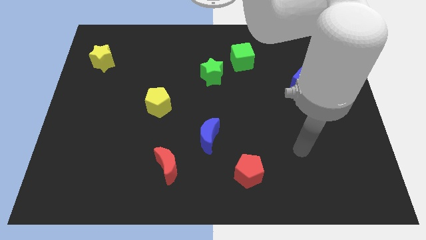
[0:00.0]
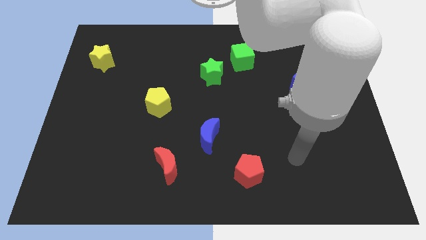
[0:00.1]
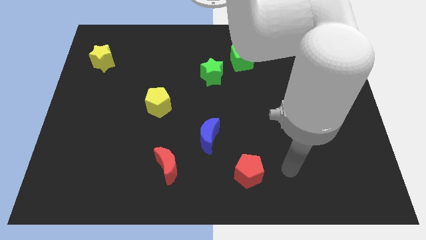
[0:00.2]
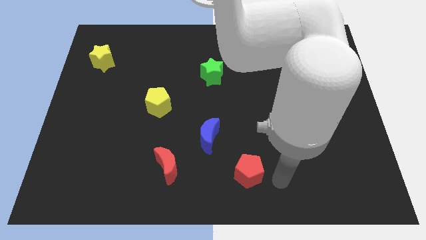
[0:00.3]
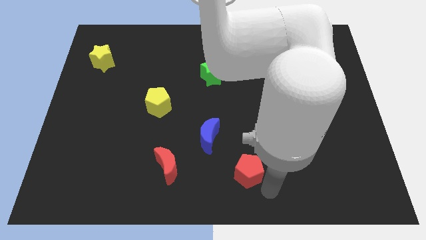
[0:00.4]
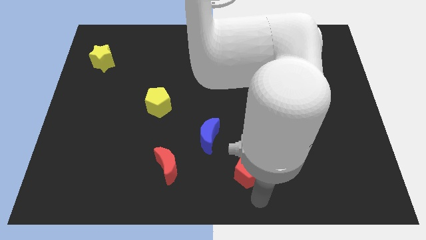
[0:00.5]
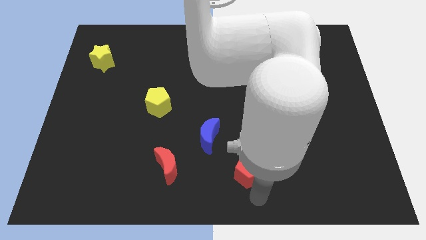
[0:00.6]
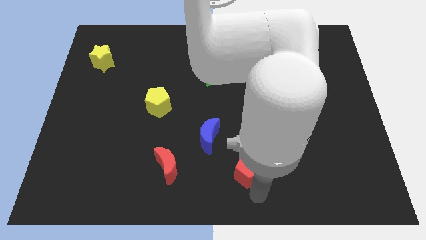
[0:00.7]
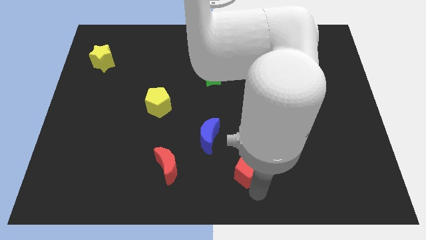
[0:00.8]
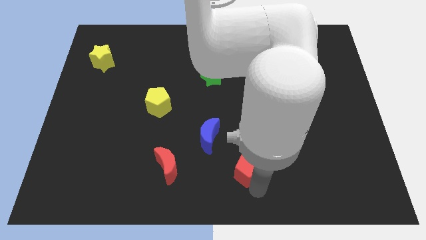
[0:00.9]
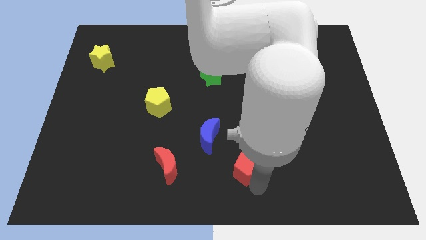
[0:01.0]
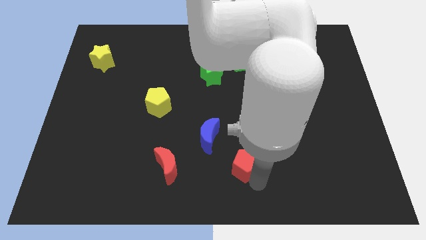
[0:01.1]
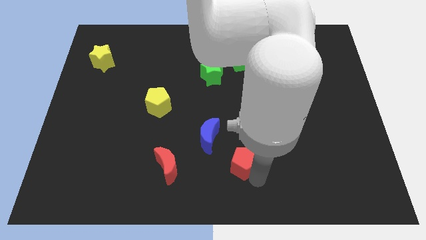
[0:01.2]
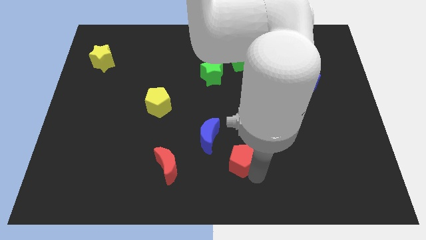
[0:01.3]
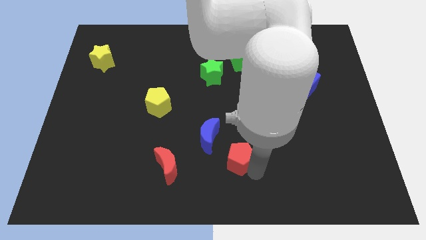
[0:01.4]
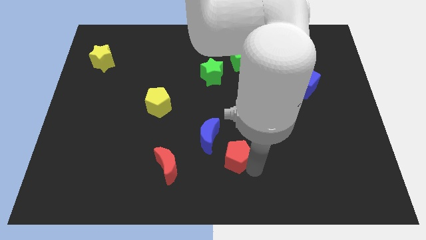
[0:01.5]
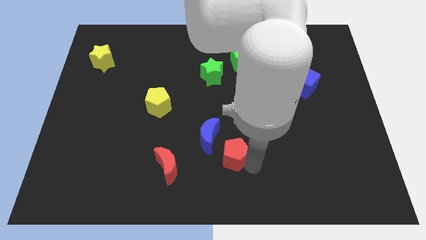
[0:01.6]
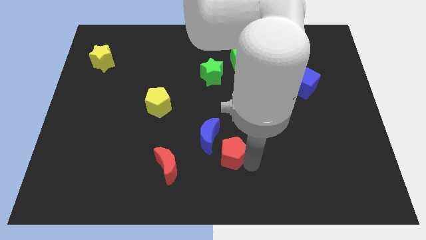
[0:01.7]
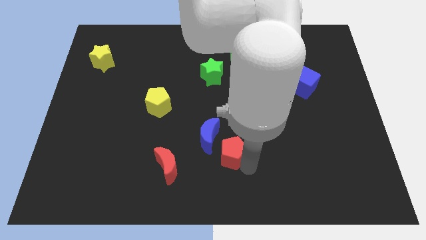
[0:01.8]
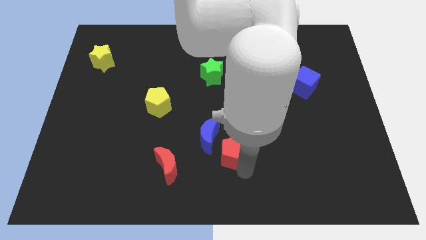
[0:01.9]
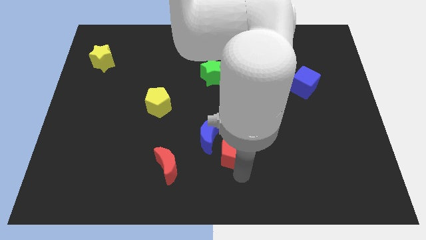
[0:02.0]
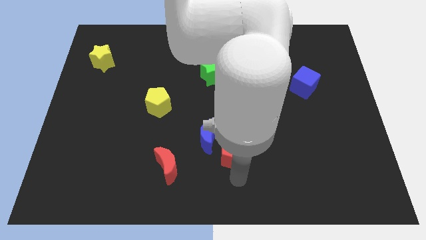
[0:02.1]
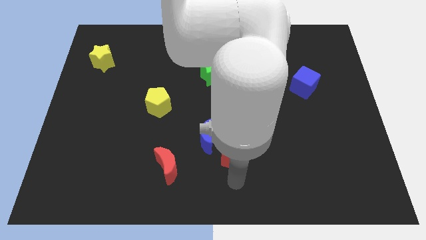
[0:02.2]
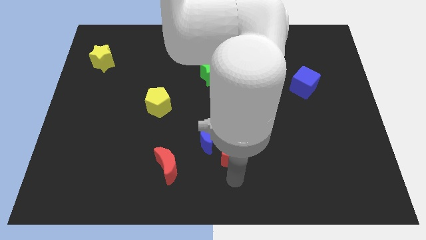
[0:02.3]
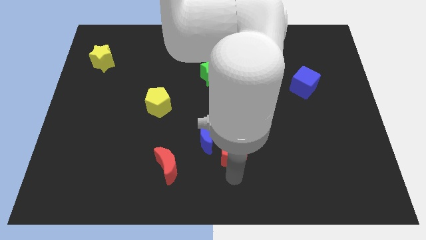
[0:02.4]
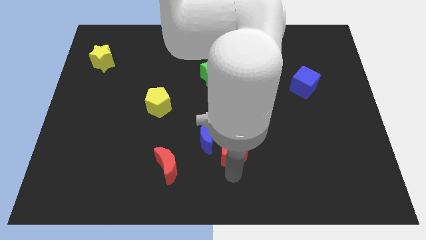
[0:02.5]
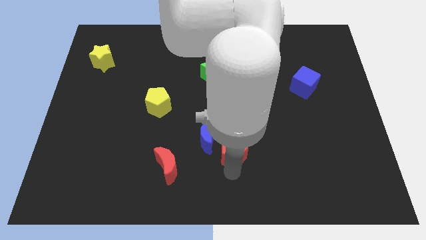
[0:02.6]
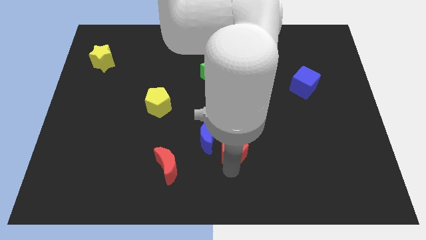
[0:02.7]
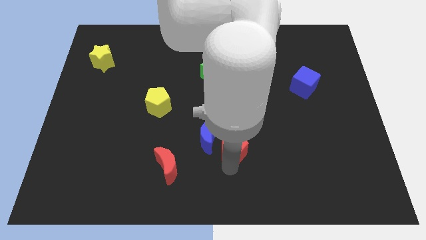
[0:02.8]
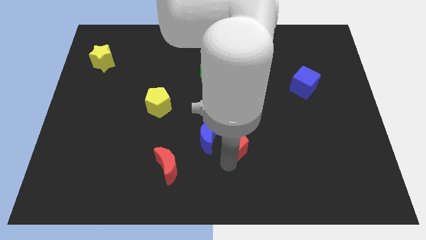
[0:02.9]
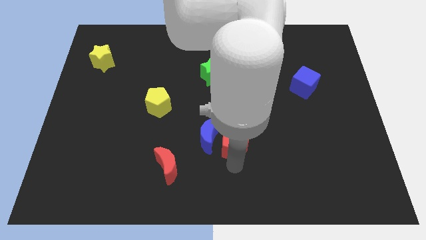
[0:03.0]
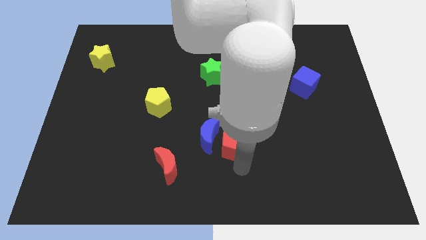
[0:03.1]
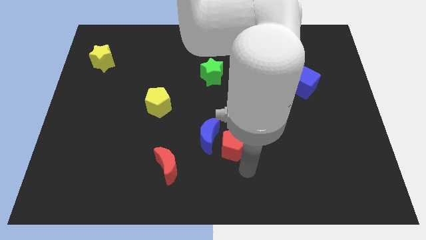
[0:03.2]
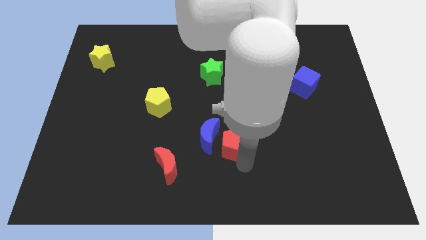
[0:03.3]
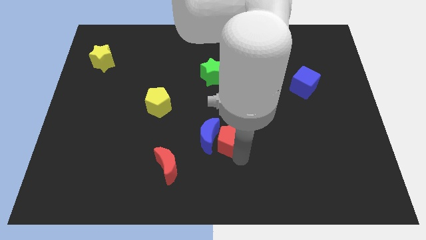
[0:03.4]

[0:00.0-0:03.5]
slide the red pentagon slightly up and to the left diagonally

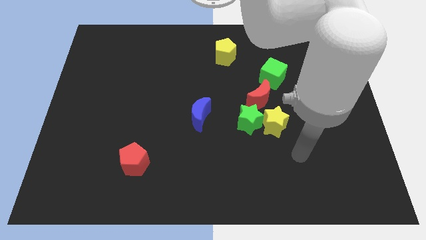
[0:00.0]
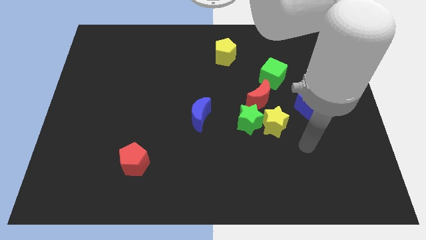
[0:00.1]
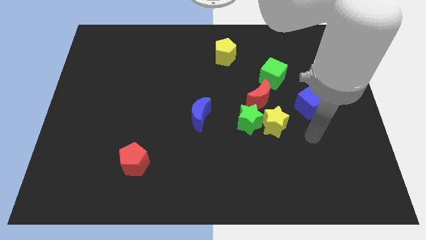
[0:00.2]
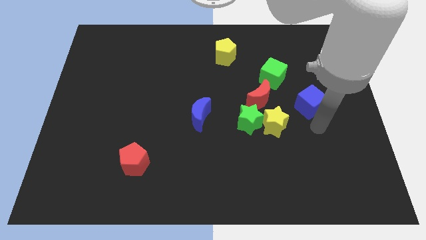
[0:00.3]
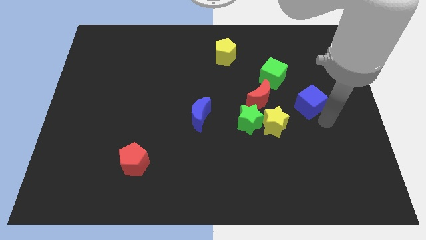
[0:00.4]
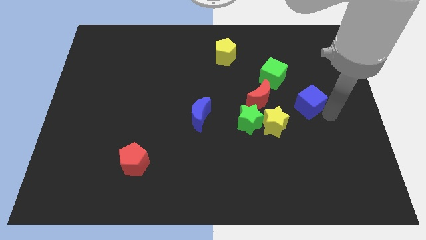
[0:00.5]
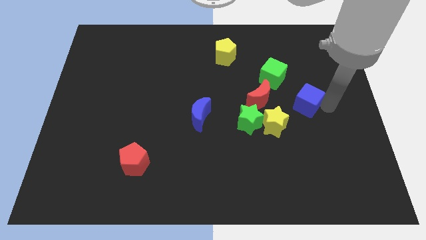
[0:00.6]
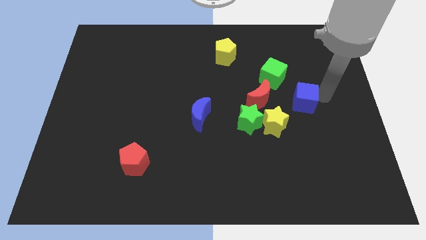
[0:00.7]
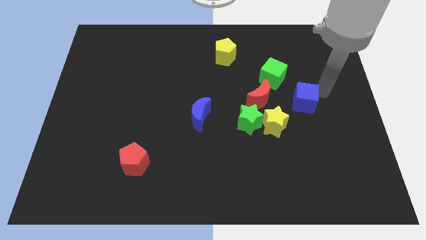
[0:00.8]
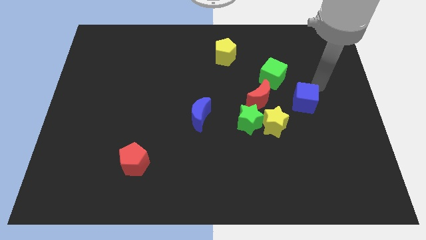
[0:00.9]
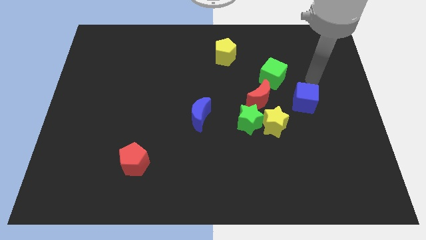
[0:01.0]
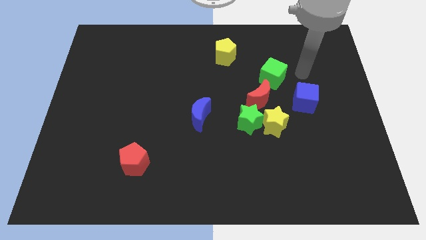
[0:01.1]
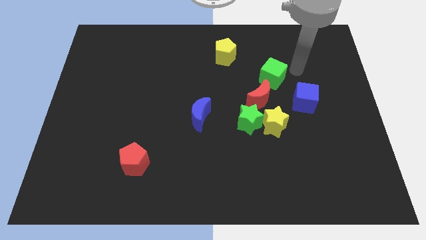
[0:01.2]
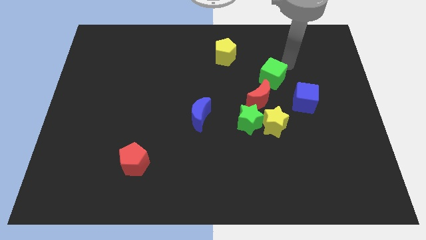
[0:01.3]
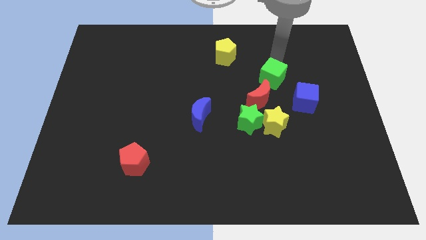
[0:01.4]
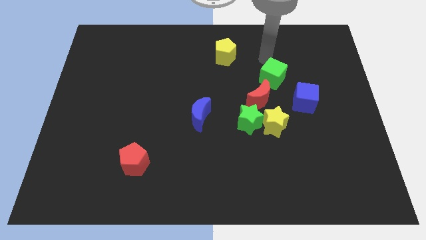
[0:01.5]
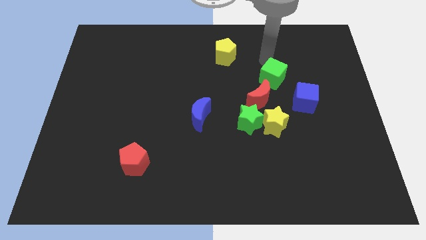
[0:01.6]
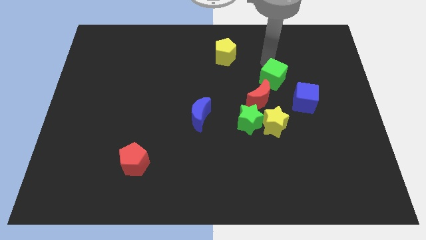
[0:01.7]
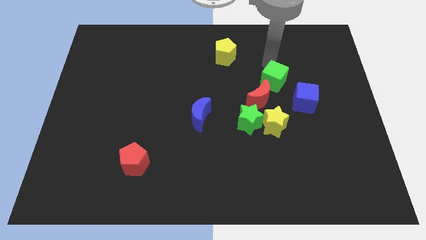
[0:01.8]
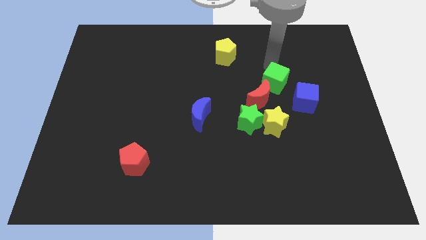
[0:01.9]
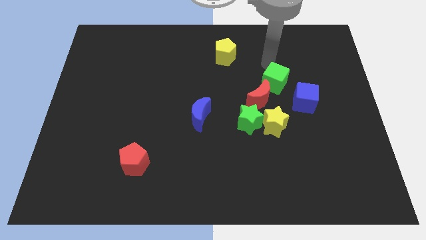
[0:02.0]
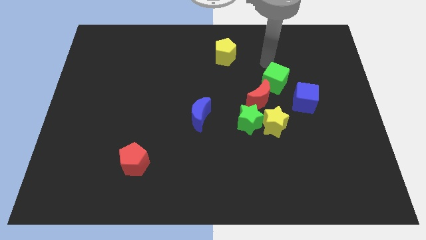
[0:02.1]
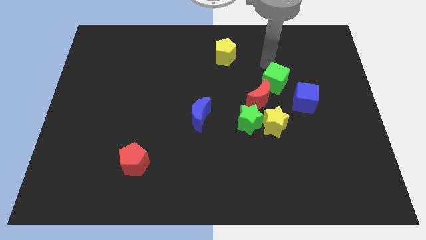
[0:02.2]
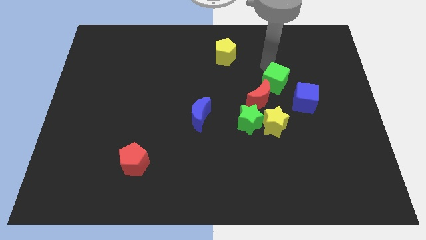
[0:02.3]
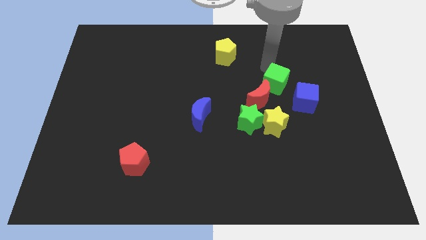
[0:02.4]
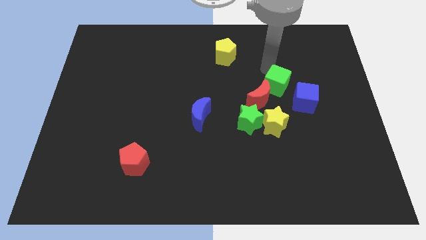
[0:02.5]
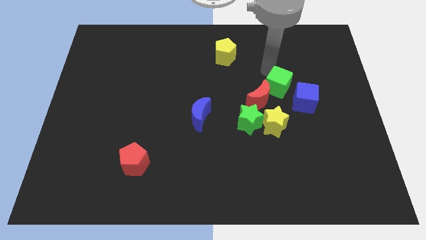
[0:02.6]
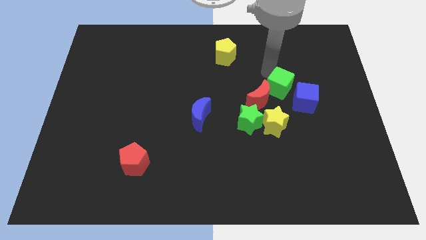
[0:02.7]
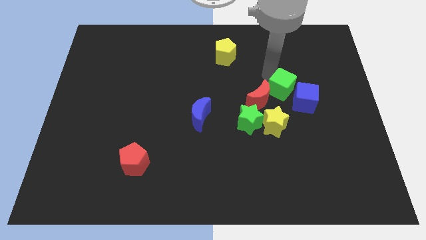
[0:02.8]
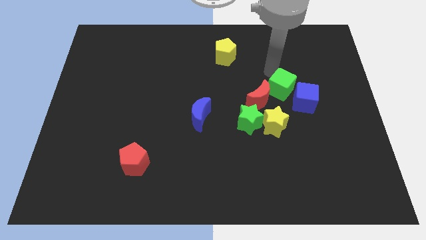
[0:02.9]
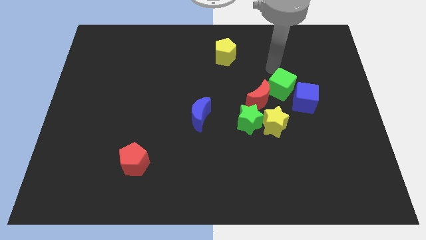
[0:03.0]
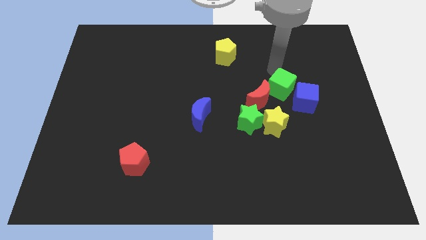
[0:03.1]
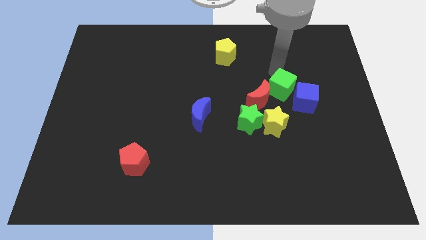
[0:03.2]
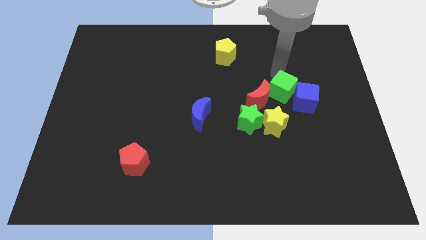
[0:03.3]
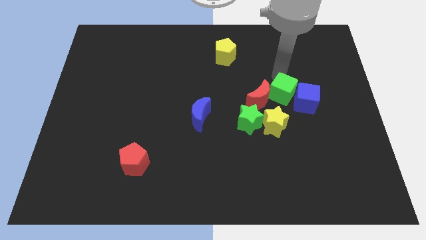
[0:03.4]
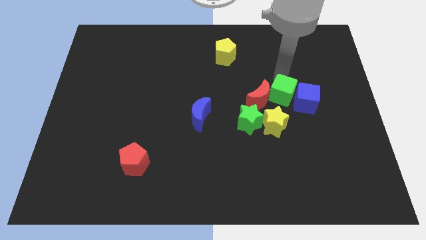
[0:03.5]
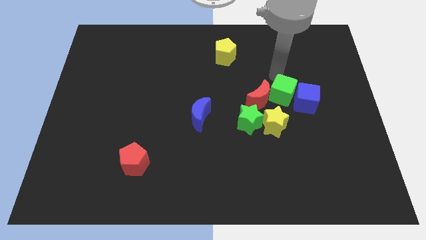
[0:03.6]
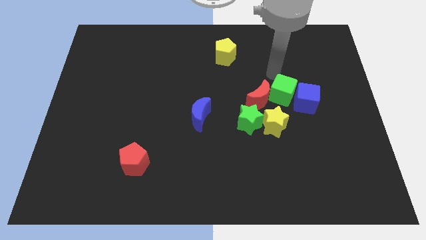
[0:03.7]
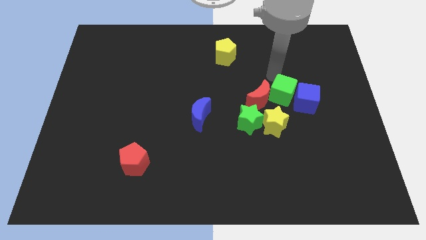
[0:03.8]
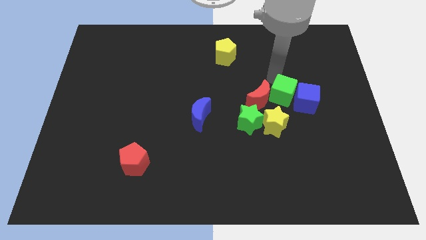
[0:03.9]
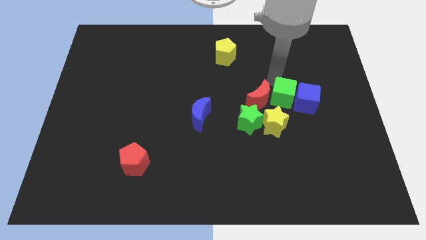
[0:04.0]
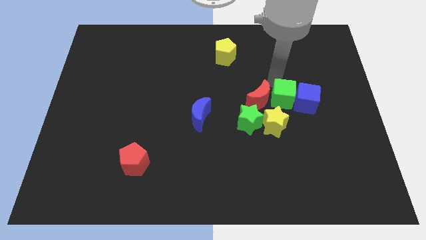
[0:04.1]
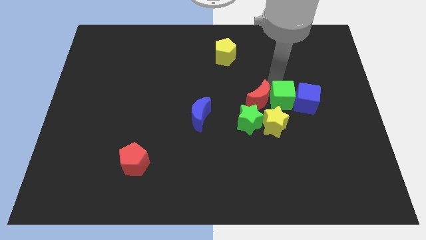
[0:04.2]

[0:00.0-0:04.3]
push the green cube somewhat downwards

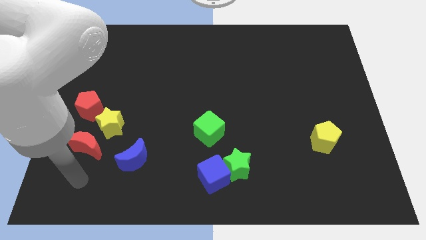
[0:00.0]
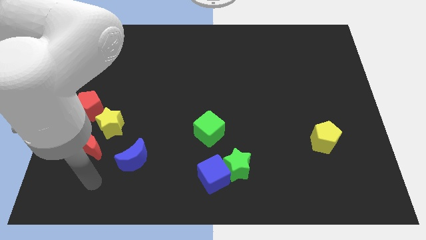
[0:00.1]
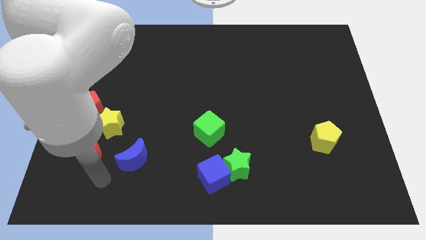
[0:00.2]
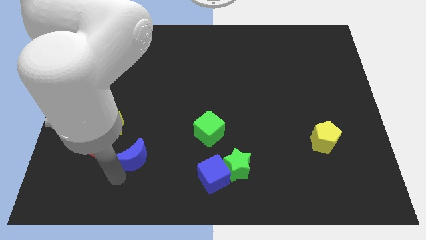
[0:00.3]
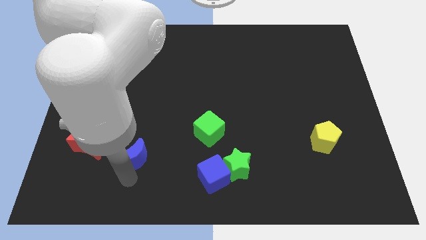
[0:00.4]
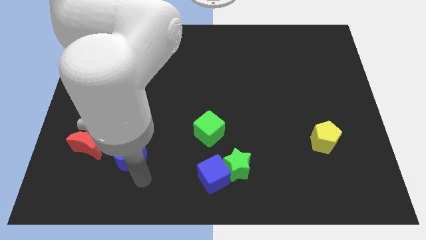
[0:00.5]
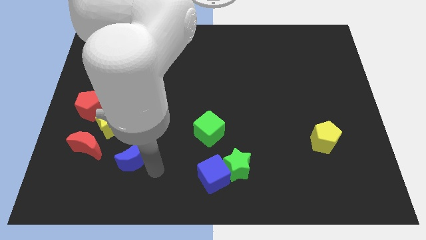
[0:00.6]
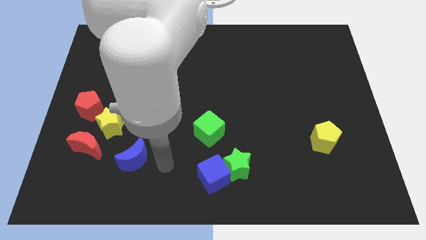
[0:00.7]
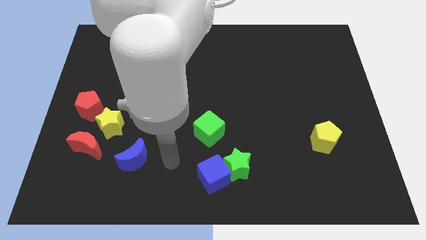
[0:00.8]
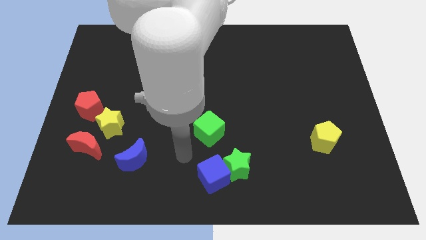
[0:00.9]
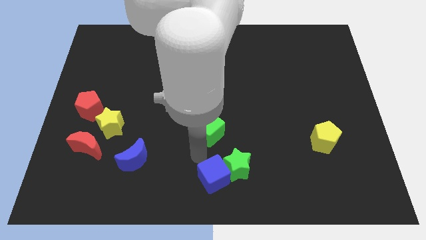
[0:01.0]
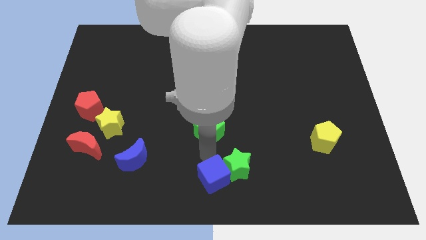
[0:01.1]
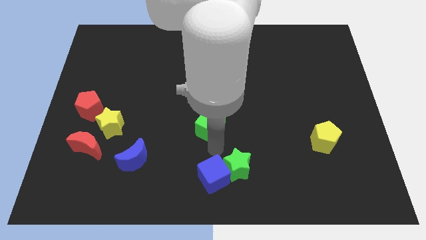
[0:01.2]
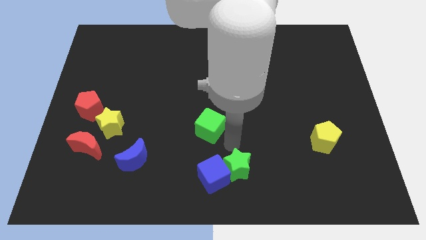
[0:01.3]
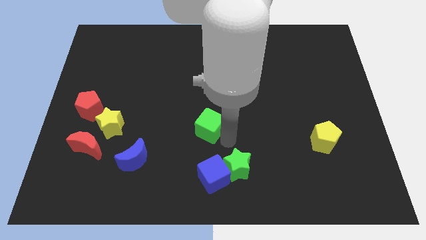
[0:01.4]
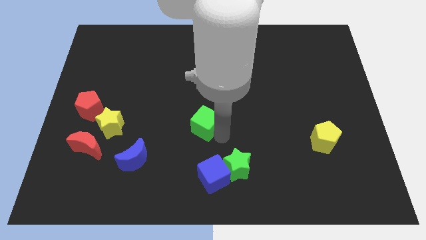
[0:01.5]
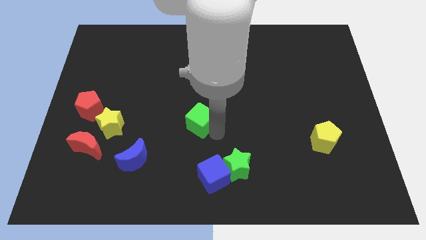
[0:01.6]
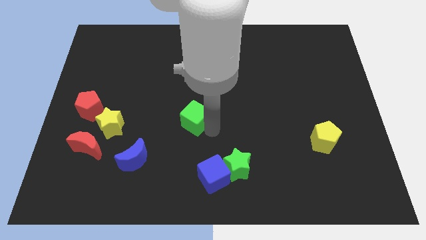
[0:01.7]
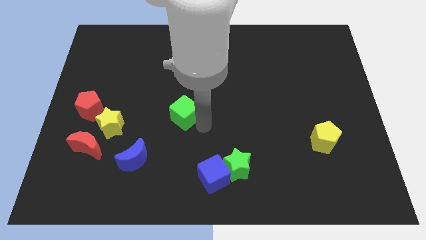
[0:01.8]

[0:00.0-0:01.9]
move the green cube diagonally up and to the left somewhat
